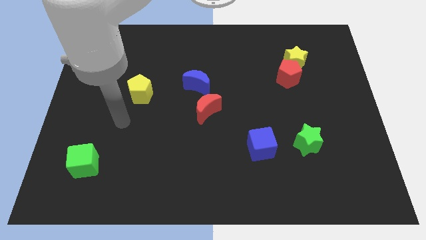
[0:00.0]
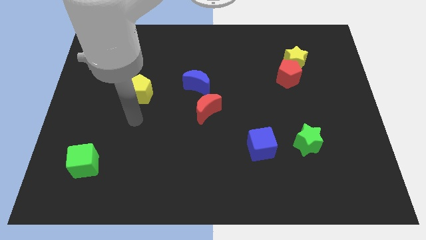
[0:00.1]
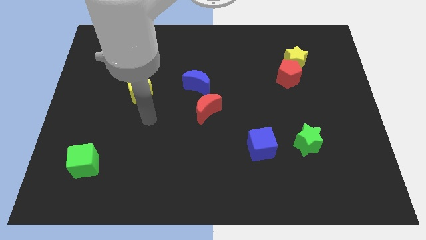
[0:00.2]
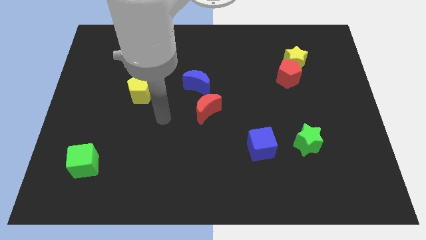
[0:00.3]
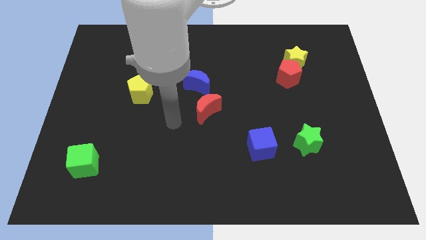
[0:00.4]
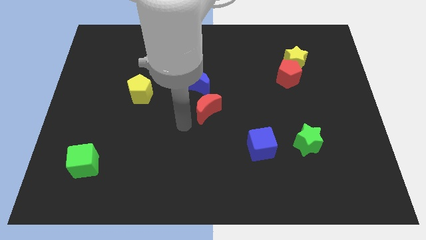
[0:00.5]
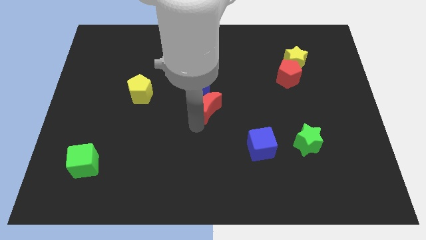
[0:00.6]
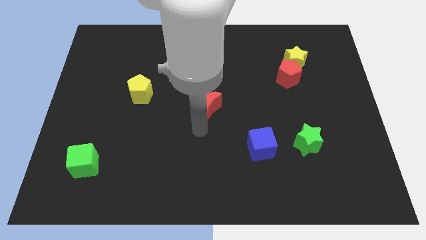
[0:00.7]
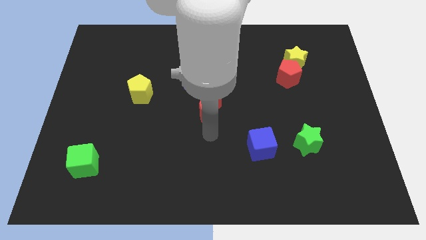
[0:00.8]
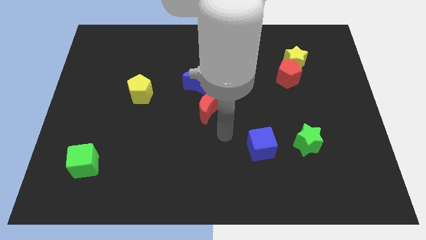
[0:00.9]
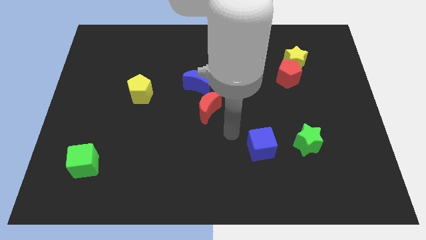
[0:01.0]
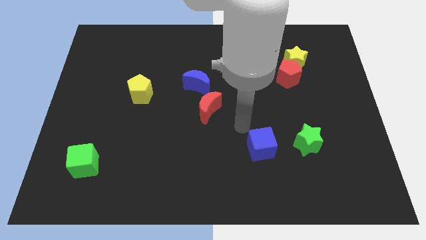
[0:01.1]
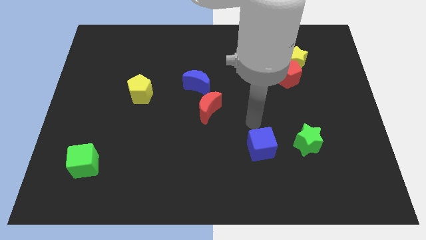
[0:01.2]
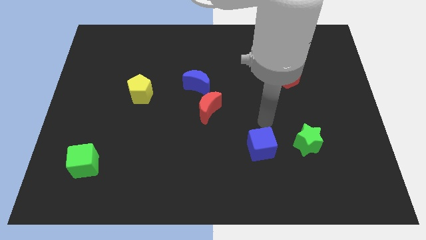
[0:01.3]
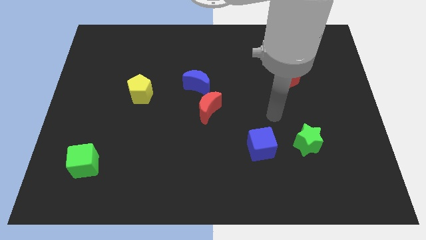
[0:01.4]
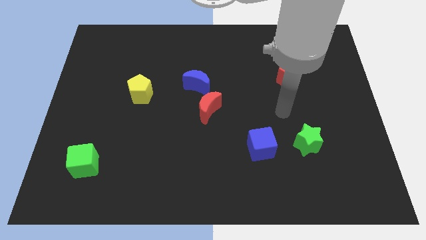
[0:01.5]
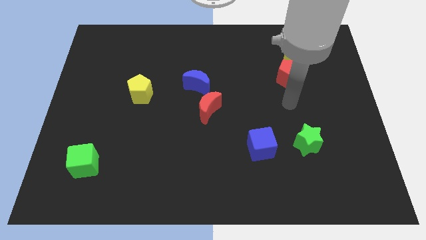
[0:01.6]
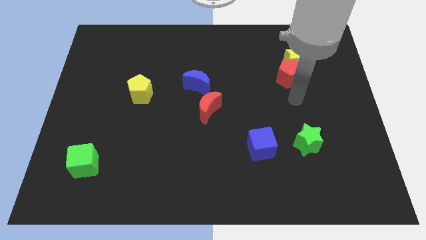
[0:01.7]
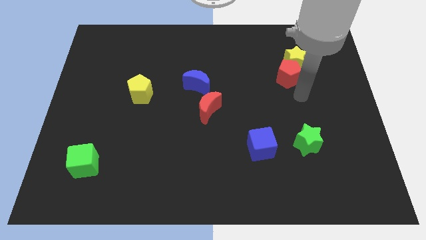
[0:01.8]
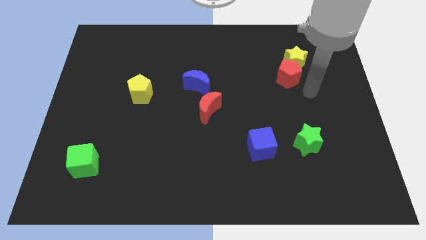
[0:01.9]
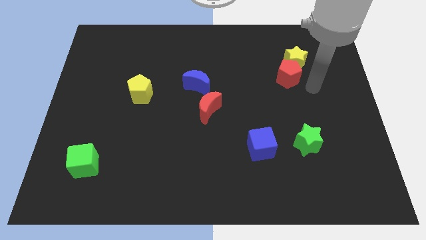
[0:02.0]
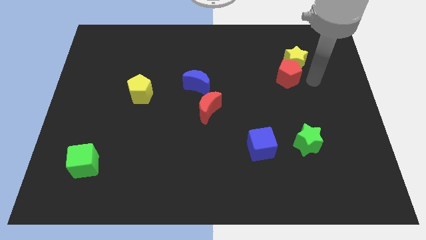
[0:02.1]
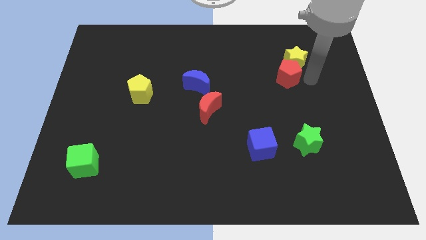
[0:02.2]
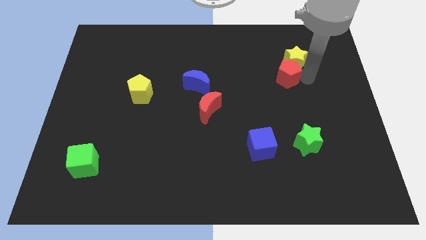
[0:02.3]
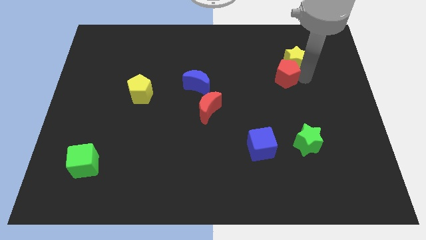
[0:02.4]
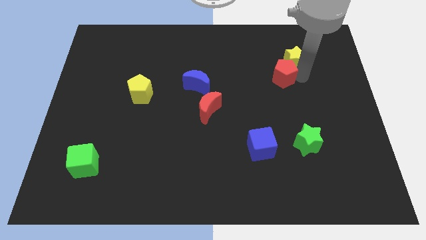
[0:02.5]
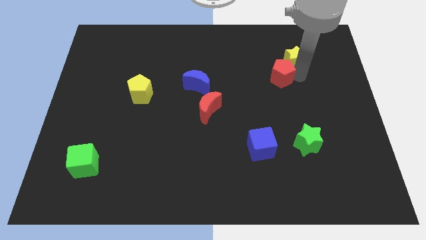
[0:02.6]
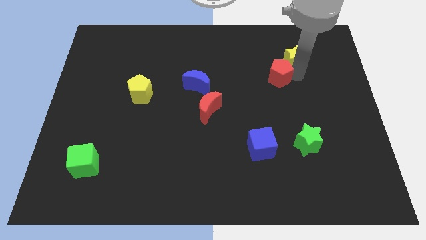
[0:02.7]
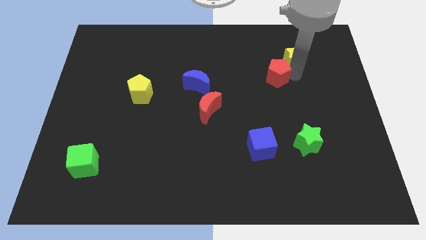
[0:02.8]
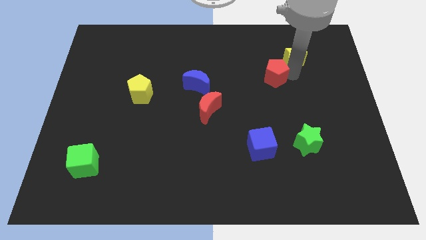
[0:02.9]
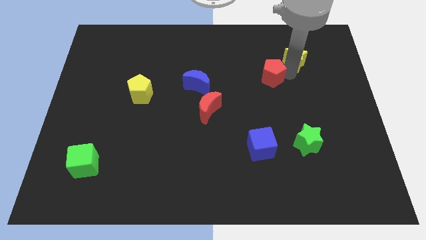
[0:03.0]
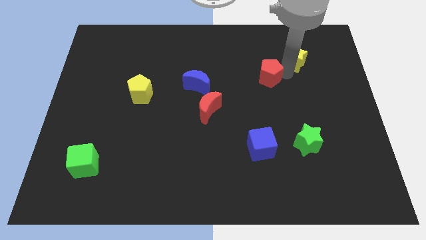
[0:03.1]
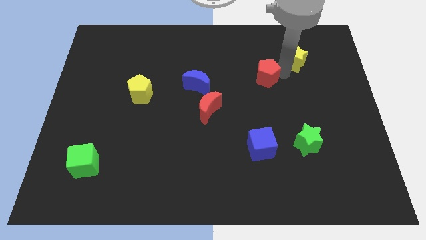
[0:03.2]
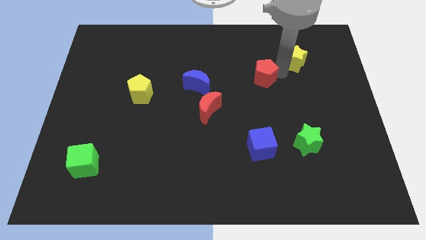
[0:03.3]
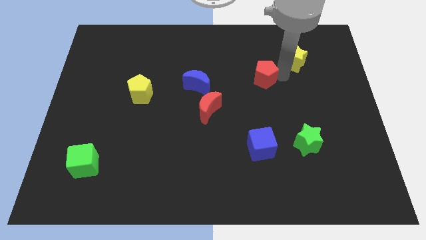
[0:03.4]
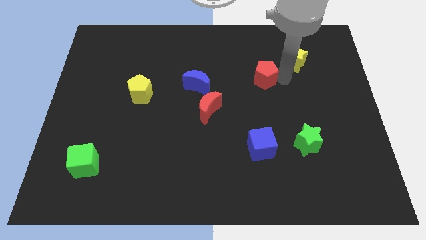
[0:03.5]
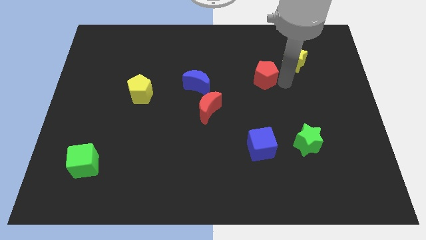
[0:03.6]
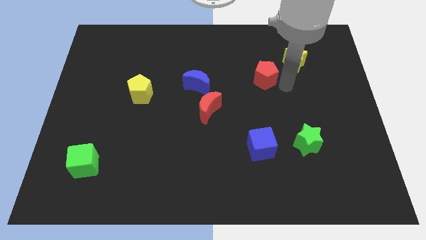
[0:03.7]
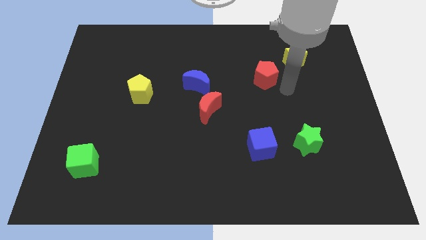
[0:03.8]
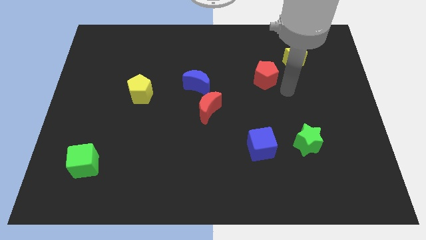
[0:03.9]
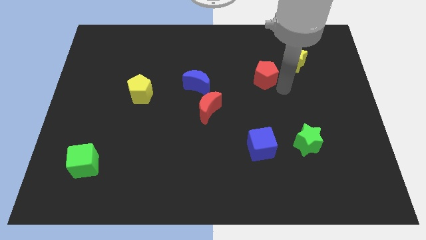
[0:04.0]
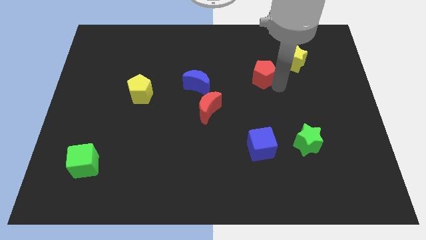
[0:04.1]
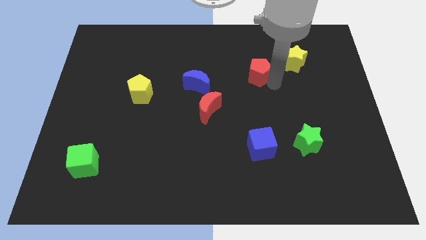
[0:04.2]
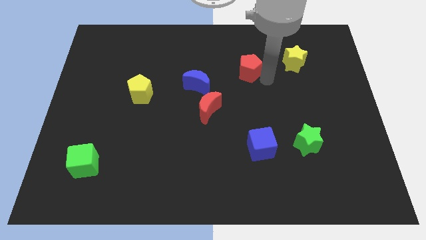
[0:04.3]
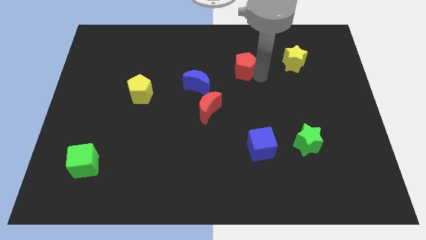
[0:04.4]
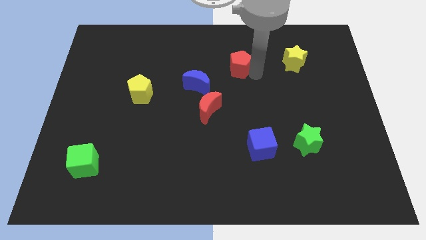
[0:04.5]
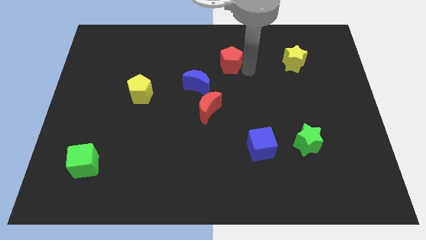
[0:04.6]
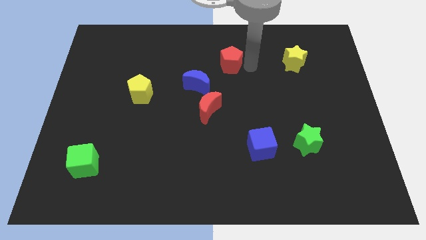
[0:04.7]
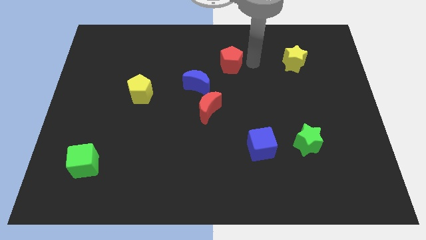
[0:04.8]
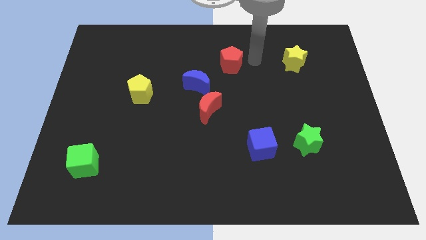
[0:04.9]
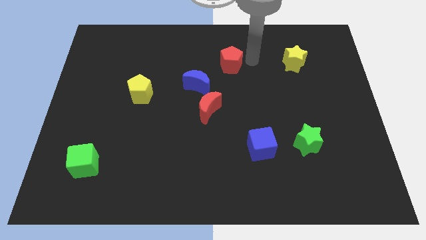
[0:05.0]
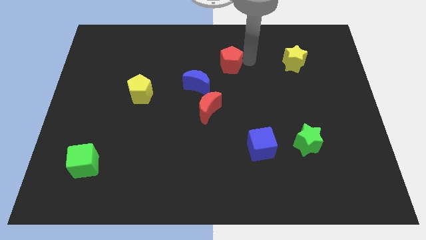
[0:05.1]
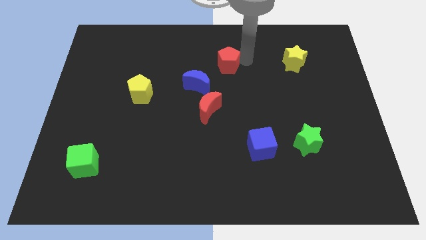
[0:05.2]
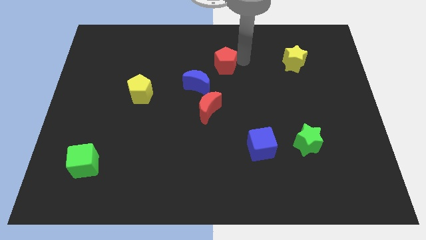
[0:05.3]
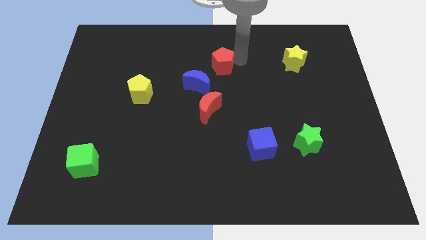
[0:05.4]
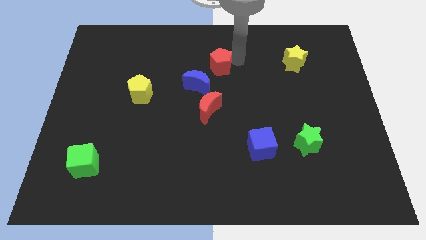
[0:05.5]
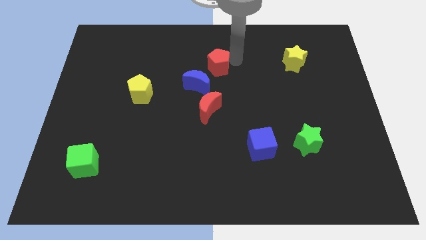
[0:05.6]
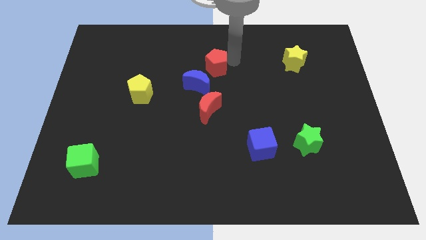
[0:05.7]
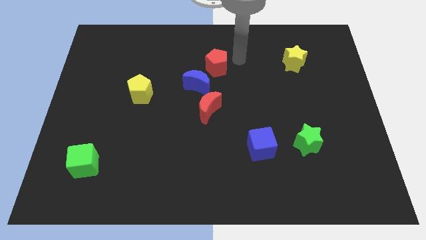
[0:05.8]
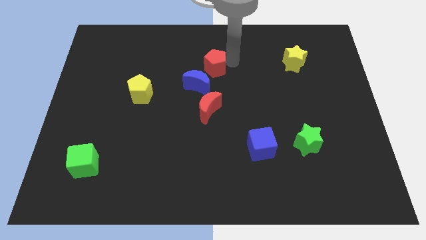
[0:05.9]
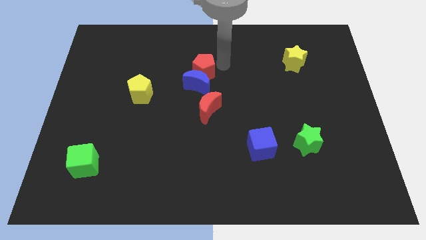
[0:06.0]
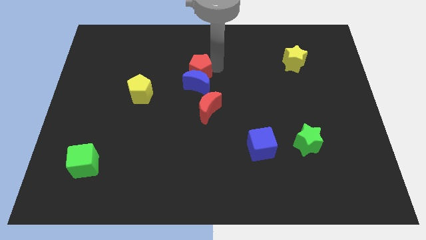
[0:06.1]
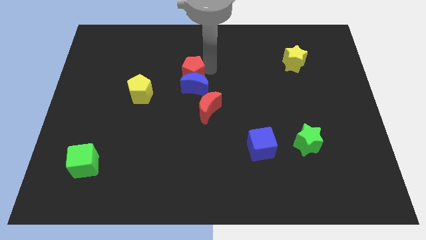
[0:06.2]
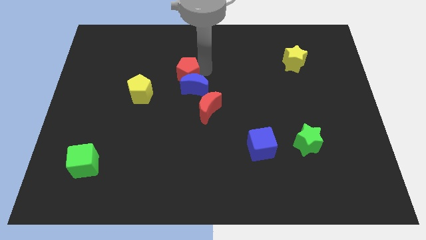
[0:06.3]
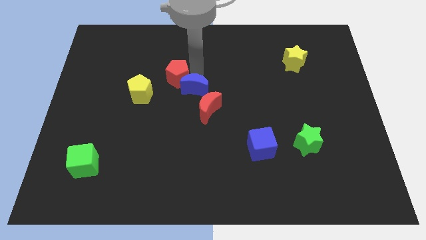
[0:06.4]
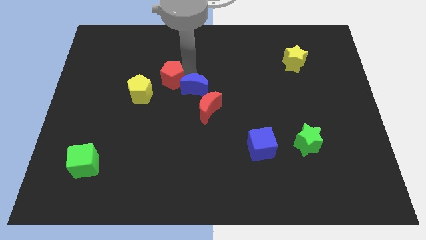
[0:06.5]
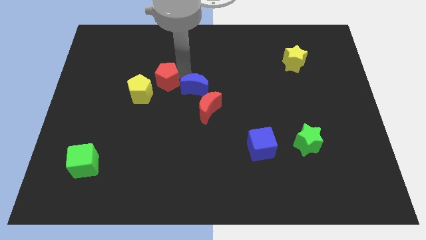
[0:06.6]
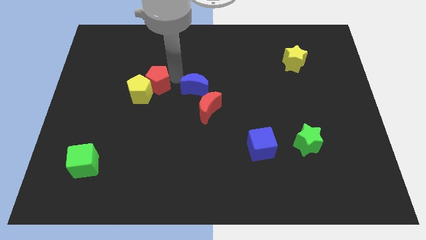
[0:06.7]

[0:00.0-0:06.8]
slide the red pentagon next to the yellow pentagon

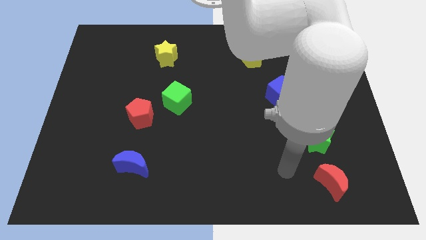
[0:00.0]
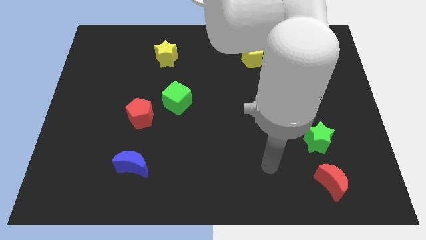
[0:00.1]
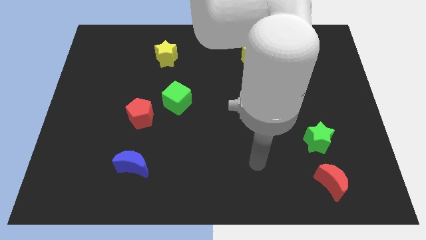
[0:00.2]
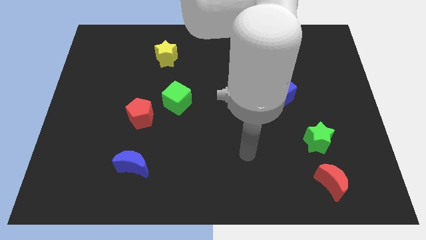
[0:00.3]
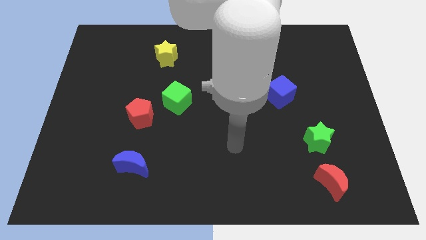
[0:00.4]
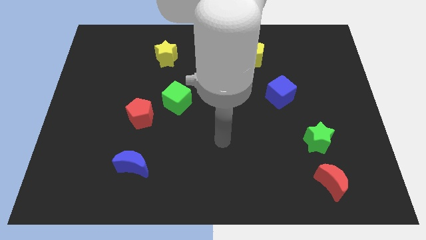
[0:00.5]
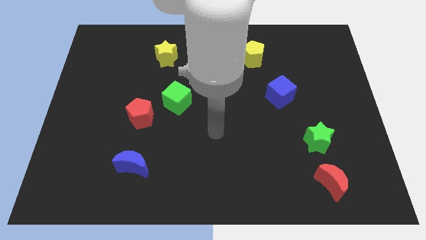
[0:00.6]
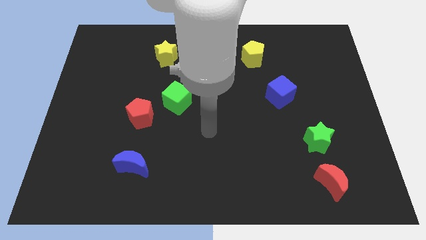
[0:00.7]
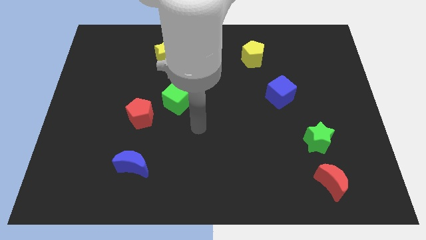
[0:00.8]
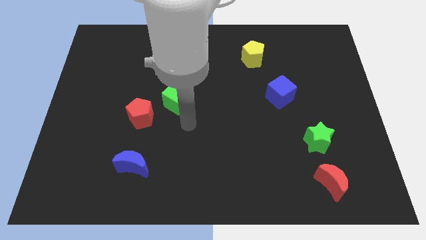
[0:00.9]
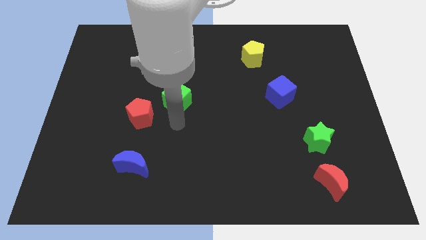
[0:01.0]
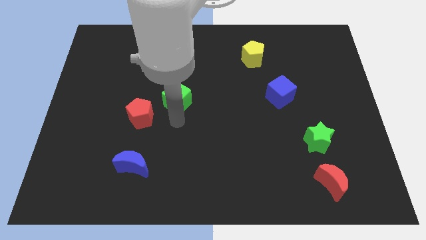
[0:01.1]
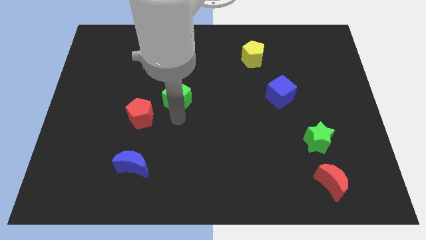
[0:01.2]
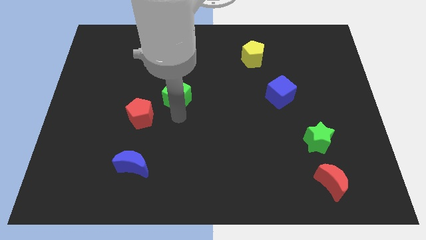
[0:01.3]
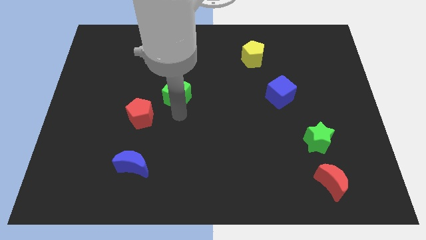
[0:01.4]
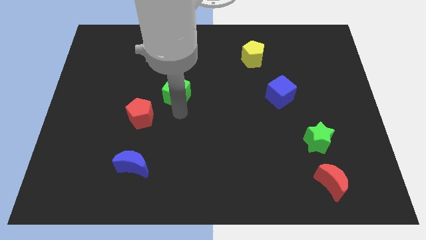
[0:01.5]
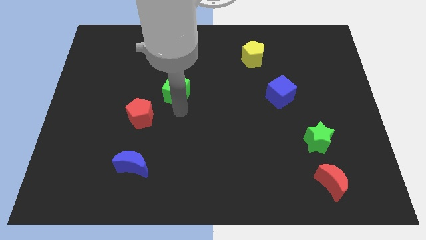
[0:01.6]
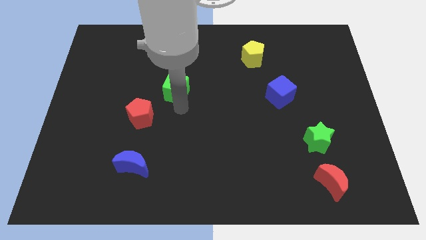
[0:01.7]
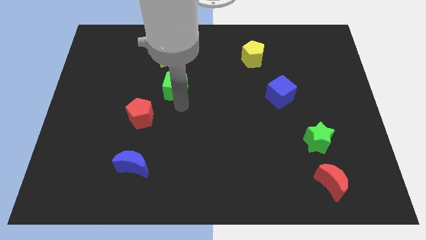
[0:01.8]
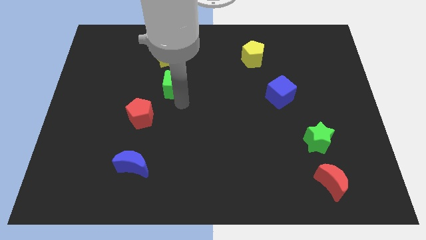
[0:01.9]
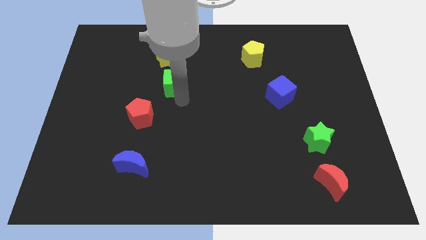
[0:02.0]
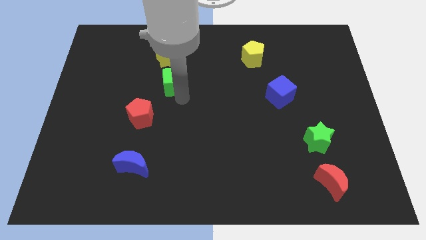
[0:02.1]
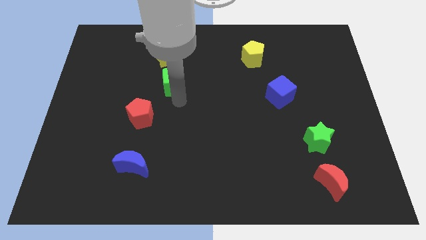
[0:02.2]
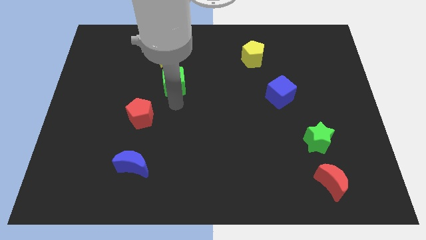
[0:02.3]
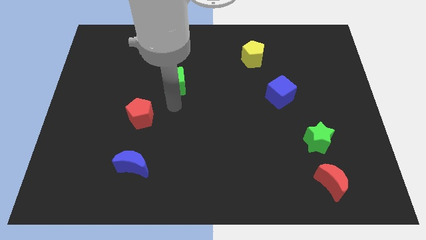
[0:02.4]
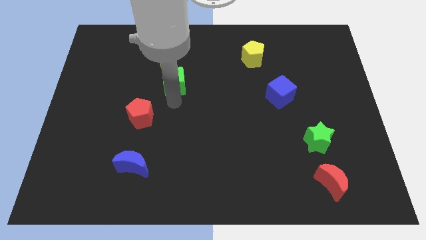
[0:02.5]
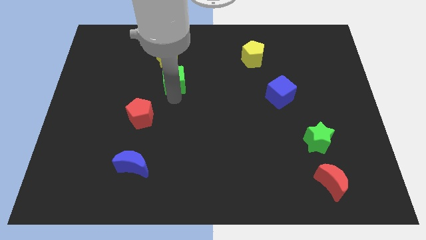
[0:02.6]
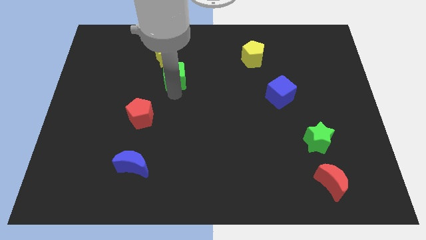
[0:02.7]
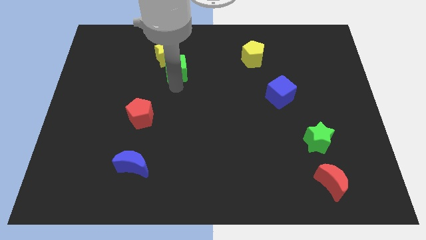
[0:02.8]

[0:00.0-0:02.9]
push the green cube next to the yellow star
